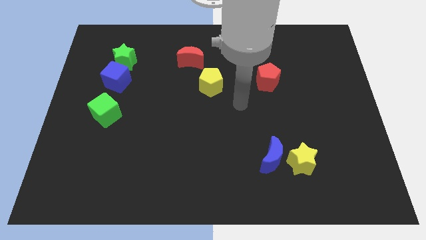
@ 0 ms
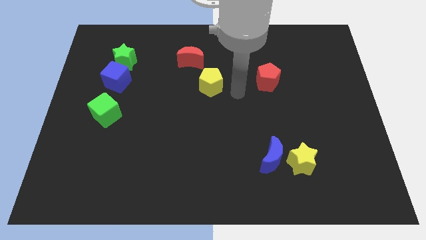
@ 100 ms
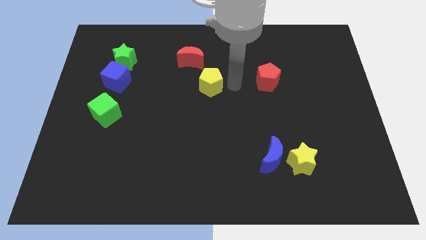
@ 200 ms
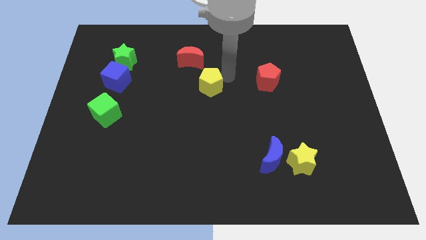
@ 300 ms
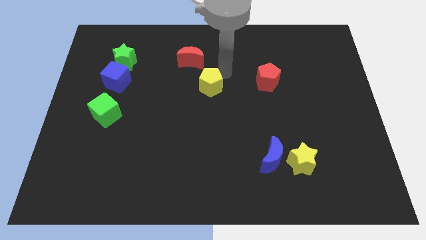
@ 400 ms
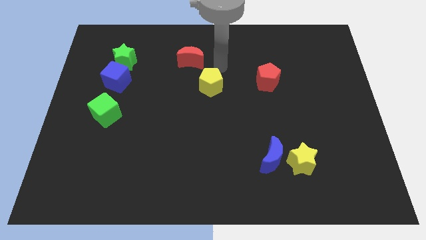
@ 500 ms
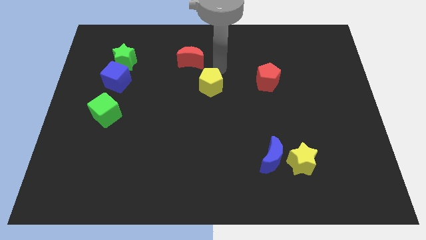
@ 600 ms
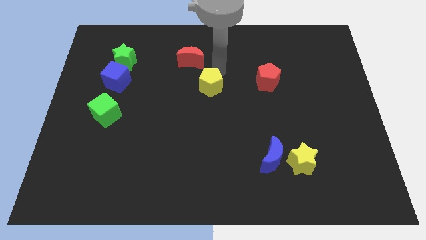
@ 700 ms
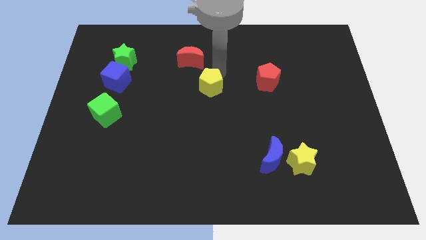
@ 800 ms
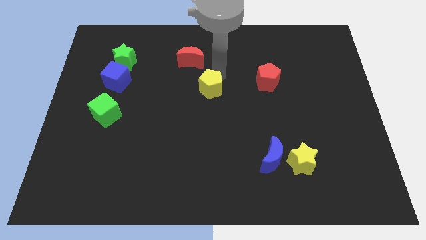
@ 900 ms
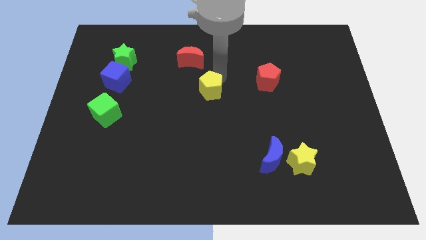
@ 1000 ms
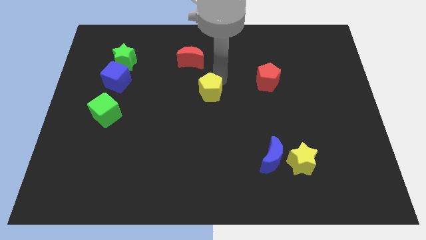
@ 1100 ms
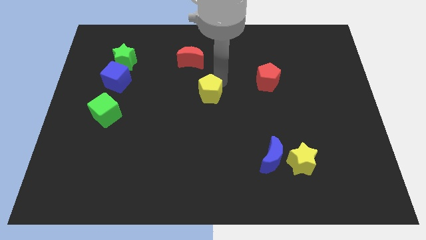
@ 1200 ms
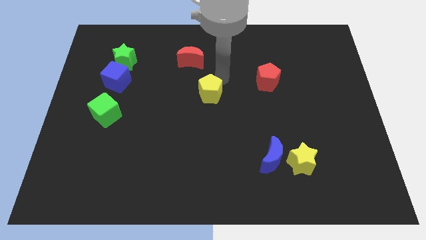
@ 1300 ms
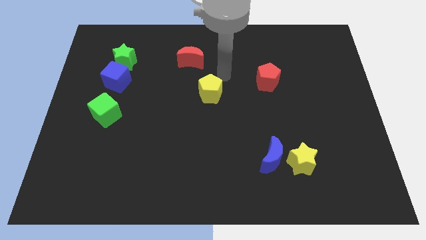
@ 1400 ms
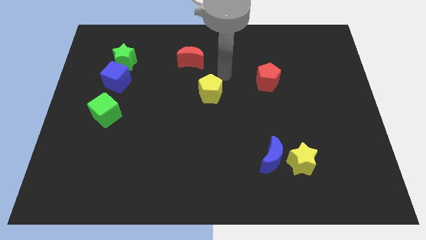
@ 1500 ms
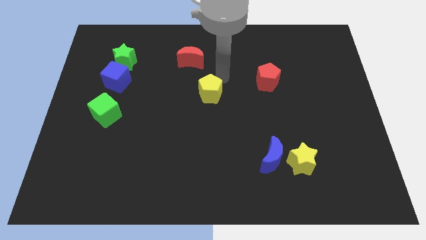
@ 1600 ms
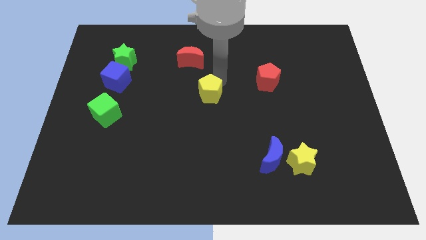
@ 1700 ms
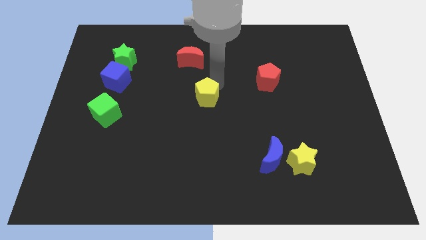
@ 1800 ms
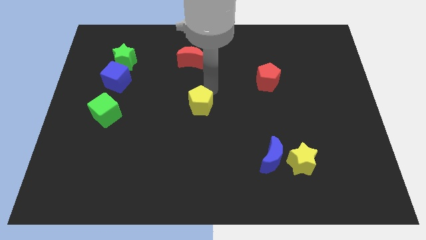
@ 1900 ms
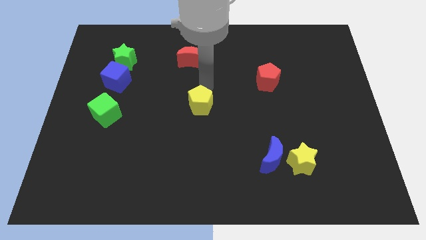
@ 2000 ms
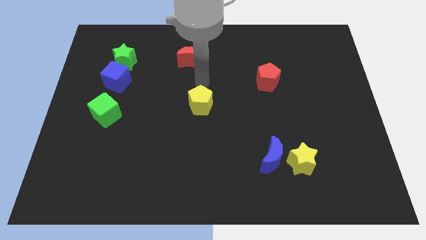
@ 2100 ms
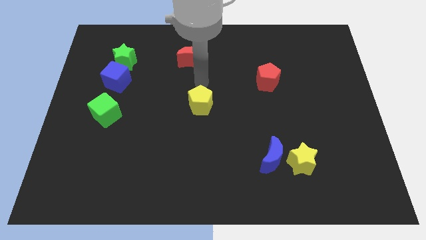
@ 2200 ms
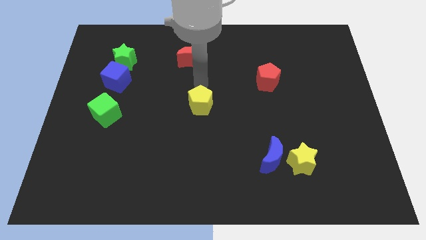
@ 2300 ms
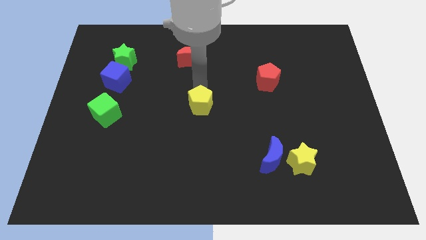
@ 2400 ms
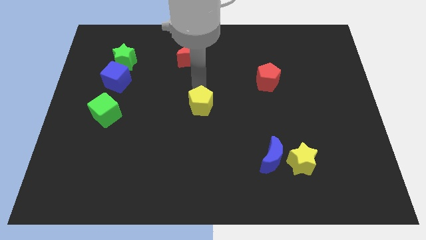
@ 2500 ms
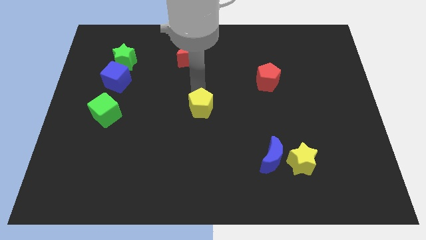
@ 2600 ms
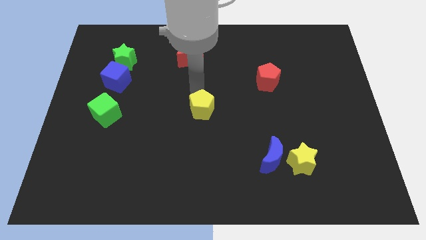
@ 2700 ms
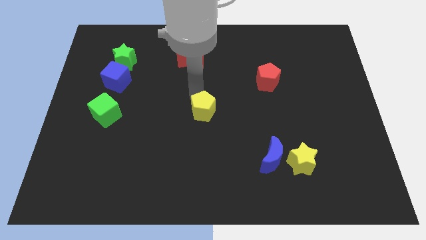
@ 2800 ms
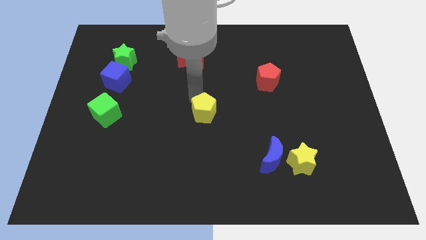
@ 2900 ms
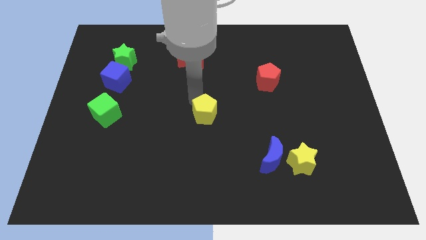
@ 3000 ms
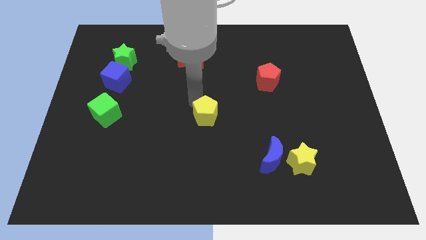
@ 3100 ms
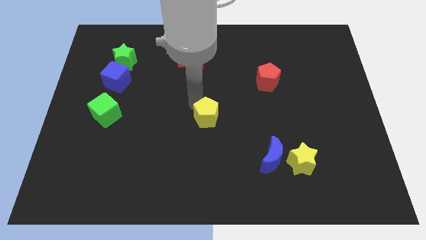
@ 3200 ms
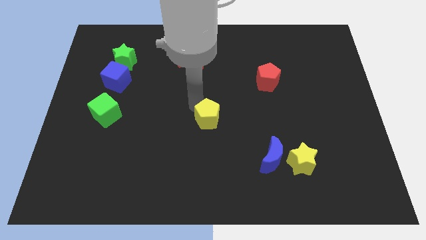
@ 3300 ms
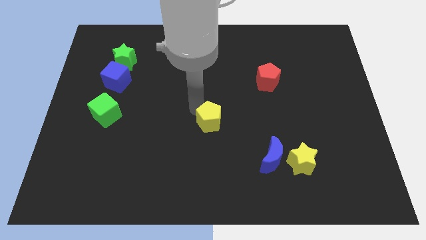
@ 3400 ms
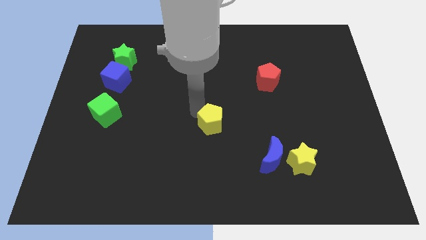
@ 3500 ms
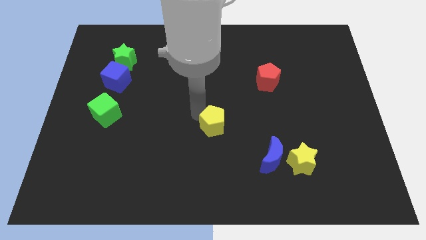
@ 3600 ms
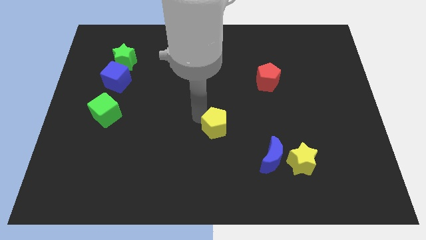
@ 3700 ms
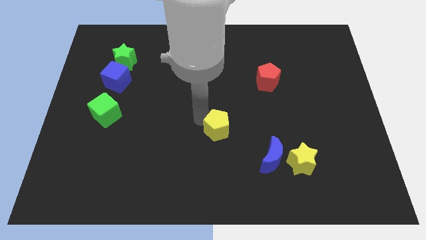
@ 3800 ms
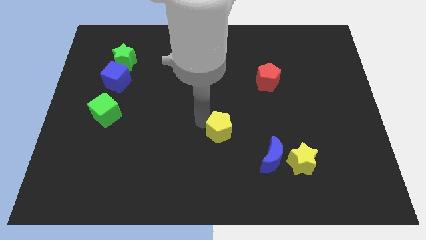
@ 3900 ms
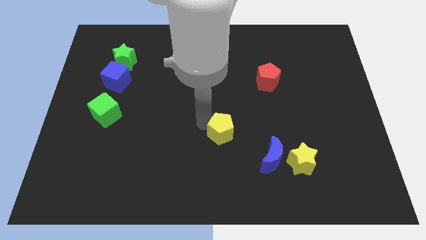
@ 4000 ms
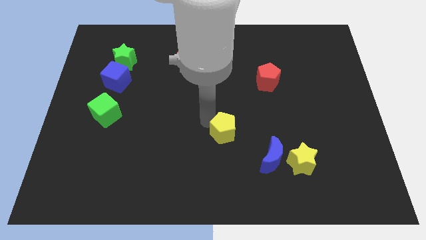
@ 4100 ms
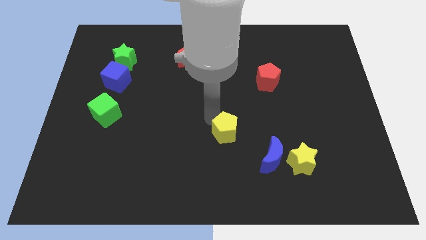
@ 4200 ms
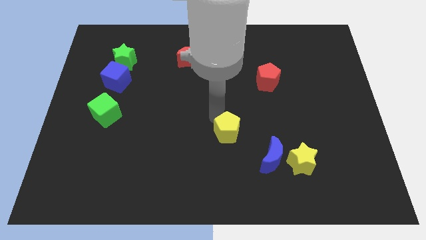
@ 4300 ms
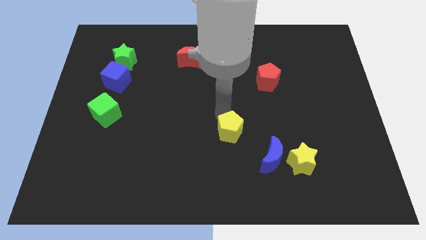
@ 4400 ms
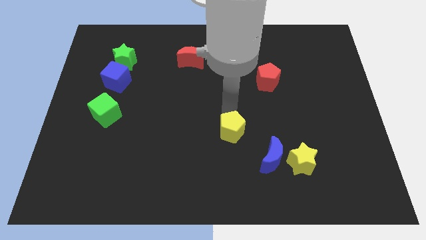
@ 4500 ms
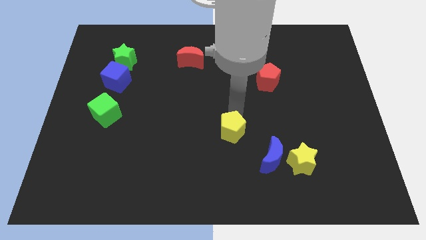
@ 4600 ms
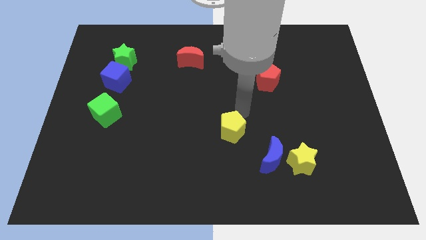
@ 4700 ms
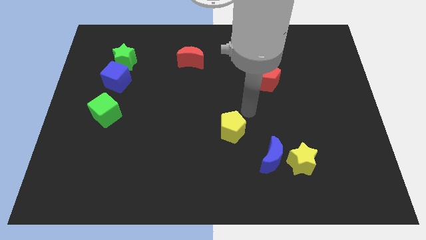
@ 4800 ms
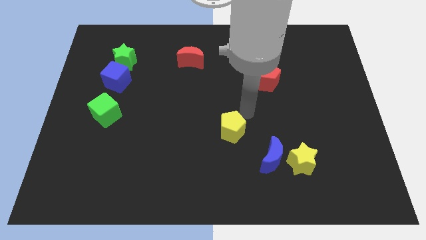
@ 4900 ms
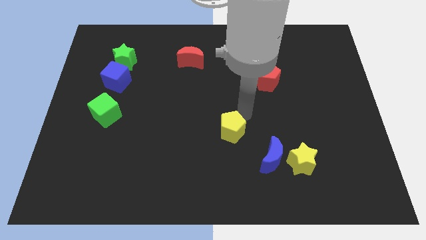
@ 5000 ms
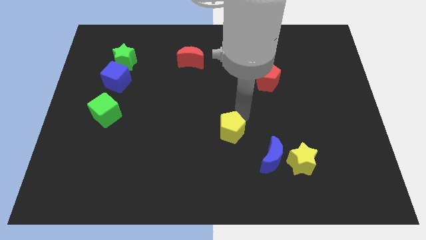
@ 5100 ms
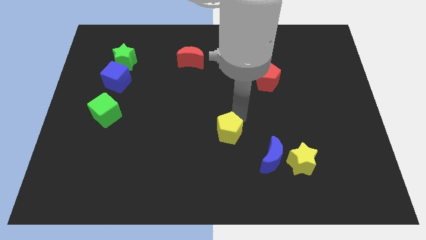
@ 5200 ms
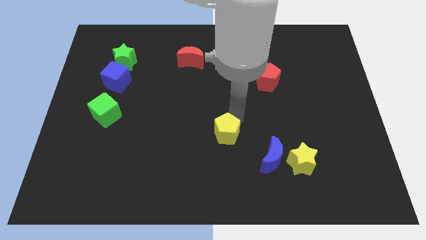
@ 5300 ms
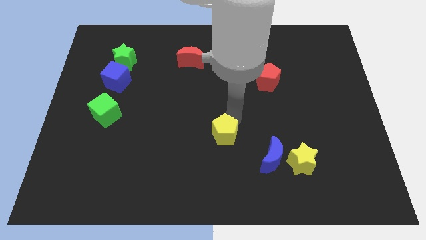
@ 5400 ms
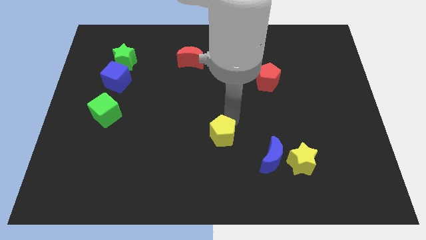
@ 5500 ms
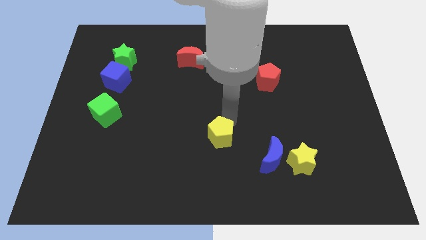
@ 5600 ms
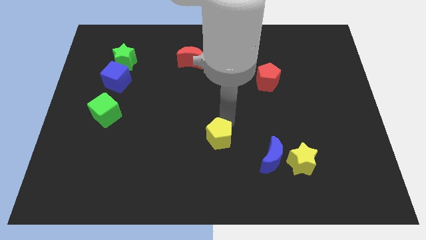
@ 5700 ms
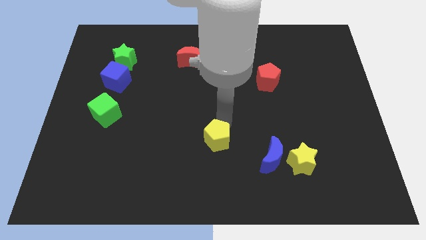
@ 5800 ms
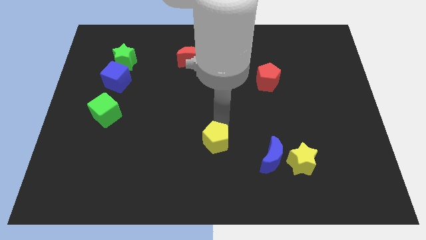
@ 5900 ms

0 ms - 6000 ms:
push the yellow pentagon to the left of the blue moon

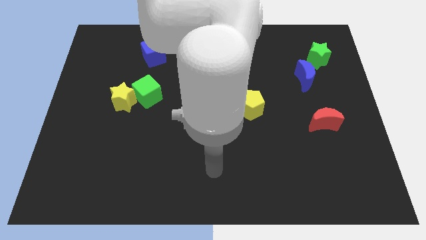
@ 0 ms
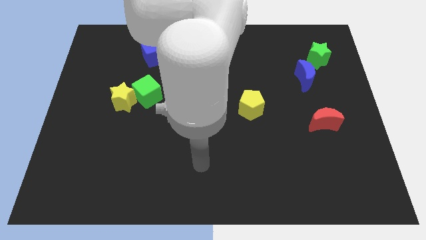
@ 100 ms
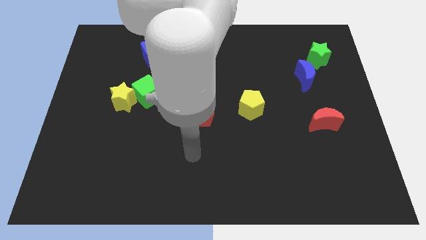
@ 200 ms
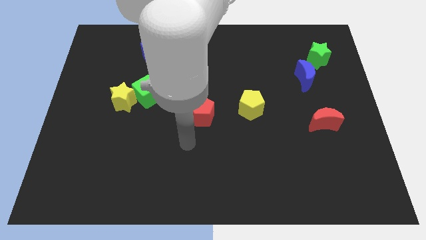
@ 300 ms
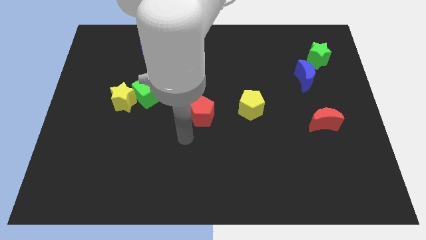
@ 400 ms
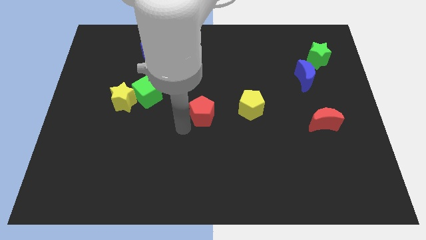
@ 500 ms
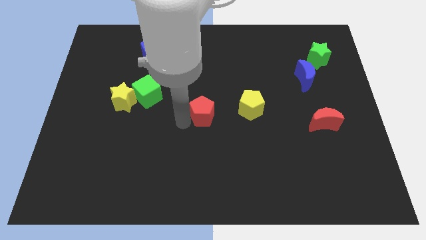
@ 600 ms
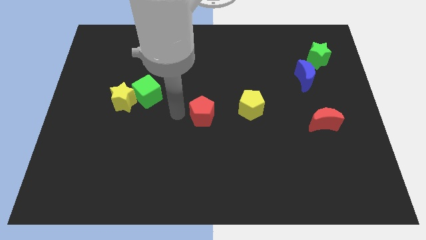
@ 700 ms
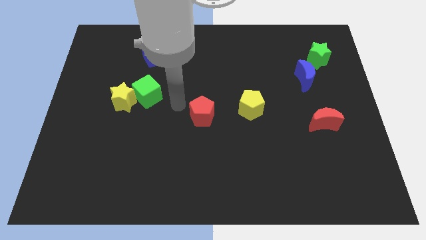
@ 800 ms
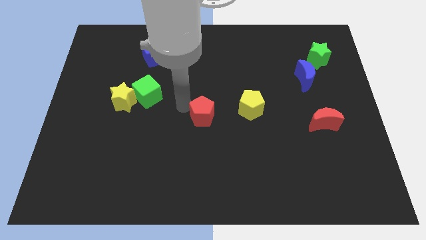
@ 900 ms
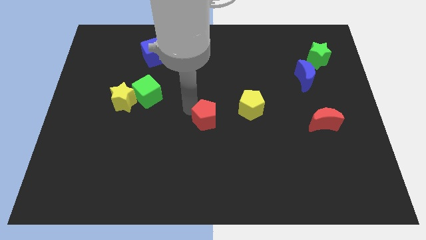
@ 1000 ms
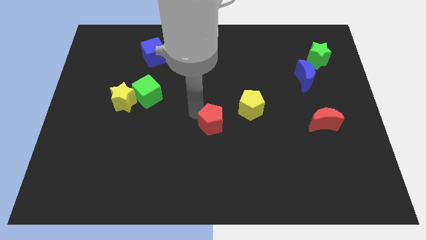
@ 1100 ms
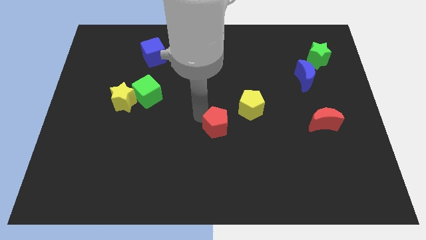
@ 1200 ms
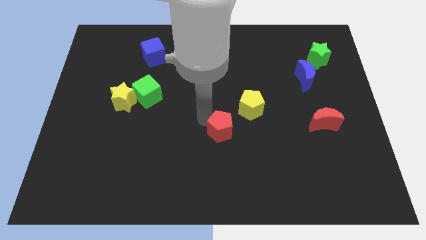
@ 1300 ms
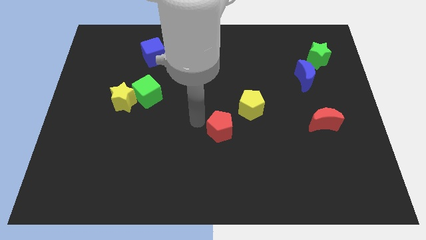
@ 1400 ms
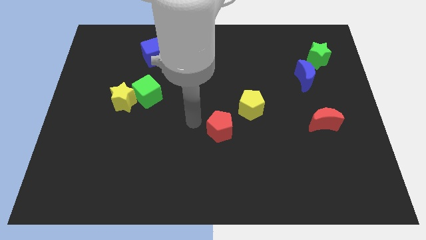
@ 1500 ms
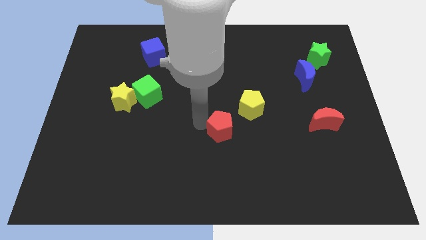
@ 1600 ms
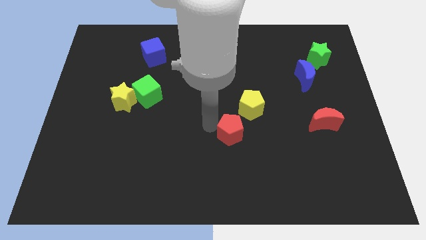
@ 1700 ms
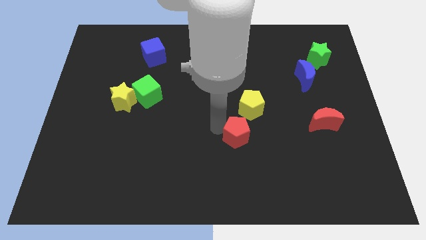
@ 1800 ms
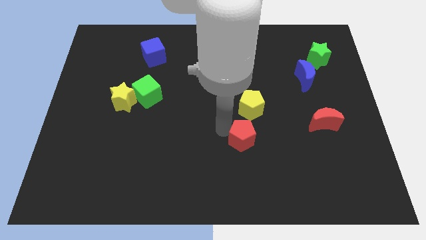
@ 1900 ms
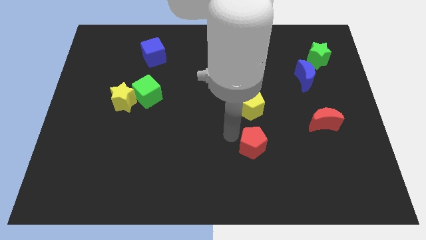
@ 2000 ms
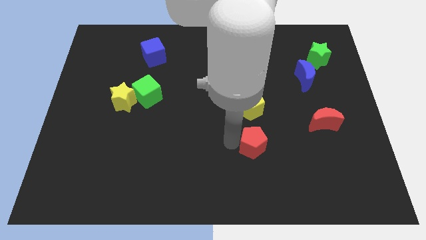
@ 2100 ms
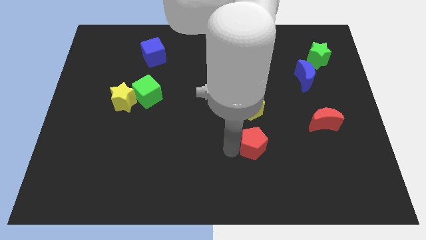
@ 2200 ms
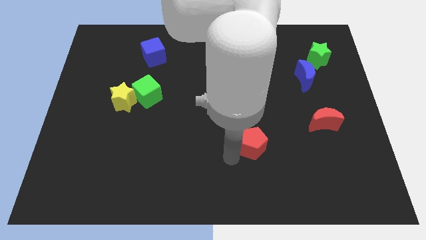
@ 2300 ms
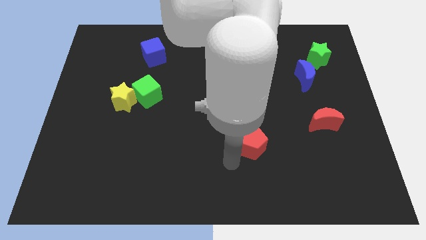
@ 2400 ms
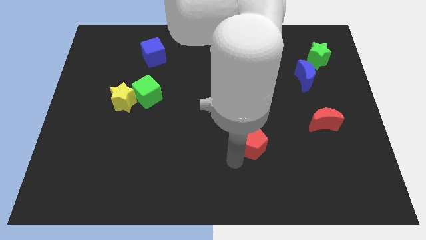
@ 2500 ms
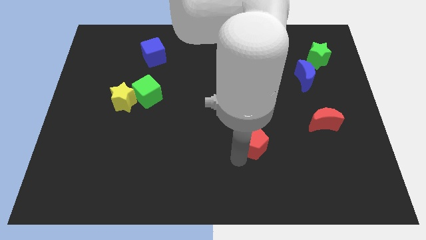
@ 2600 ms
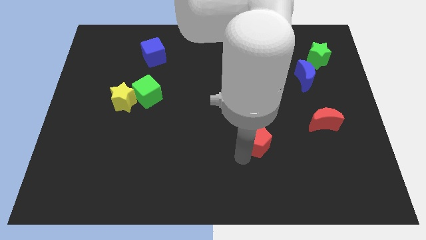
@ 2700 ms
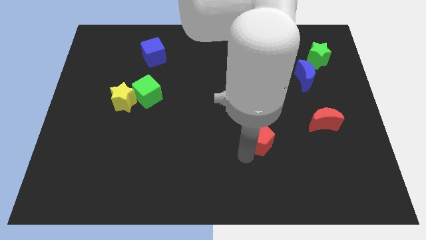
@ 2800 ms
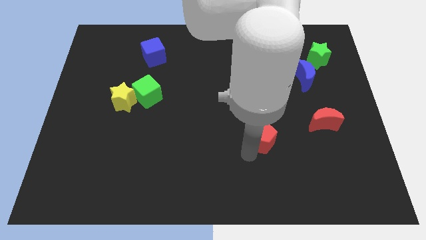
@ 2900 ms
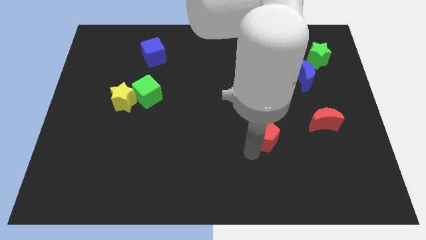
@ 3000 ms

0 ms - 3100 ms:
push the red pentagon to the left of the red moon
